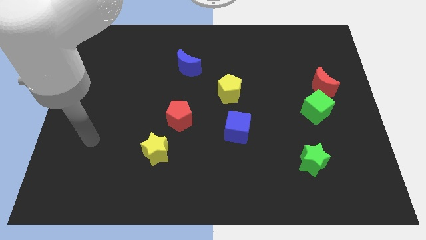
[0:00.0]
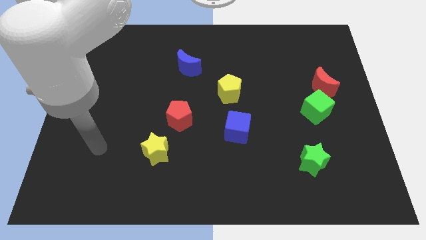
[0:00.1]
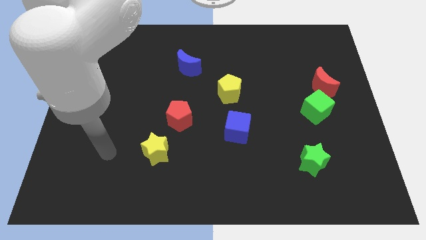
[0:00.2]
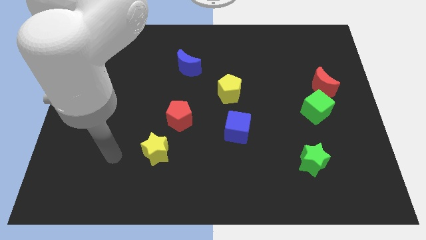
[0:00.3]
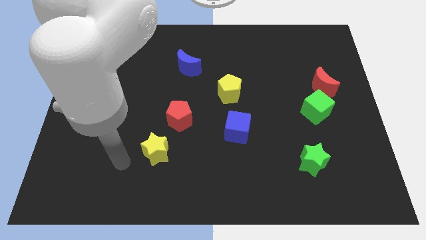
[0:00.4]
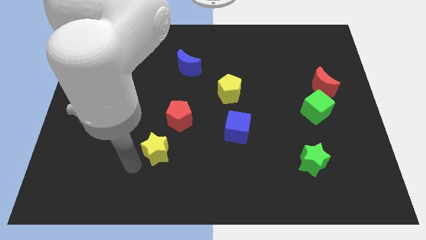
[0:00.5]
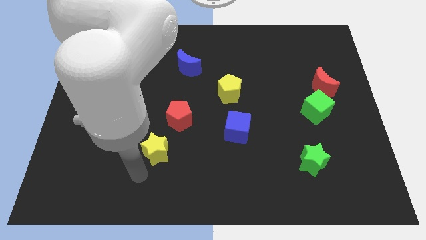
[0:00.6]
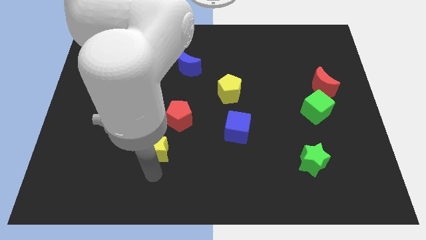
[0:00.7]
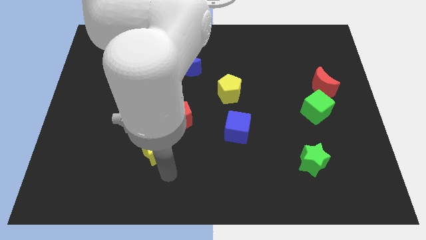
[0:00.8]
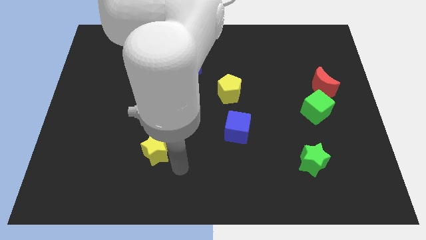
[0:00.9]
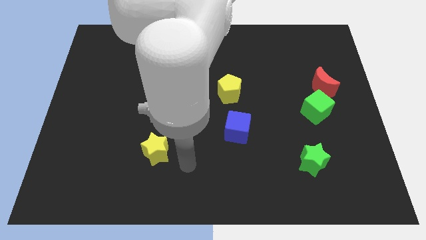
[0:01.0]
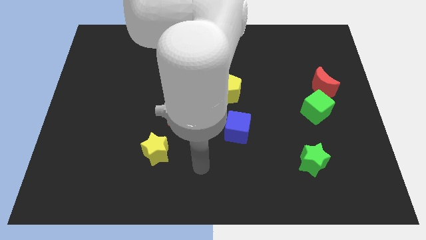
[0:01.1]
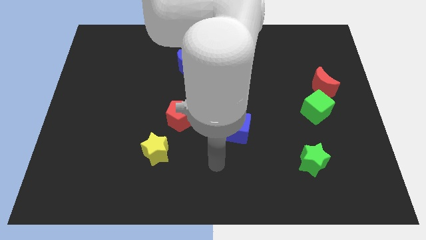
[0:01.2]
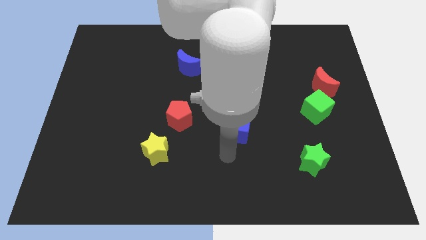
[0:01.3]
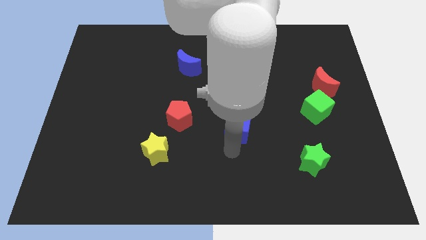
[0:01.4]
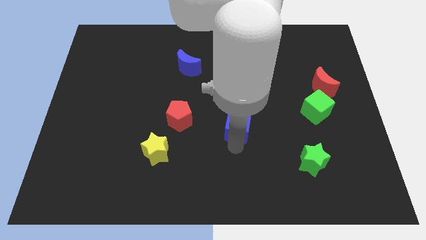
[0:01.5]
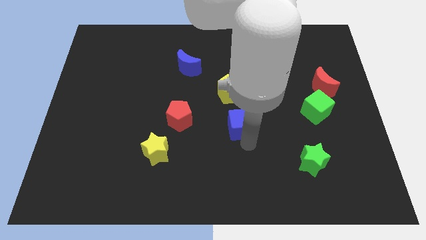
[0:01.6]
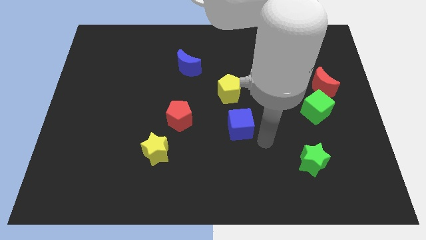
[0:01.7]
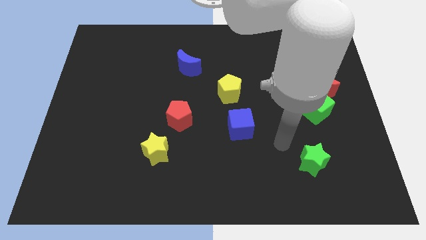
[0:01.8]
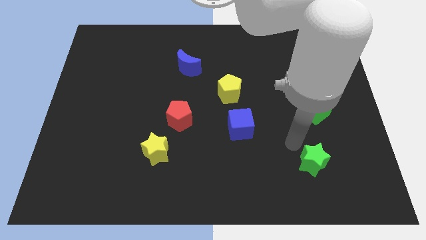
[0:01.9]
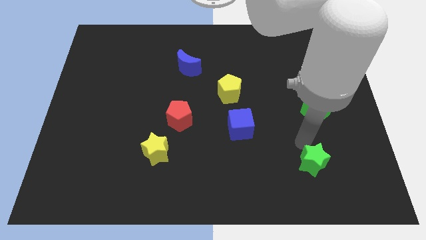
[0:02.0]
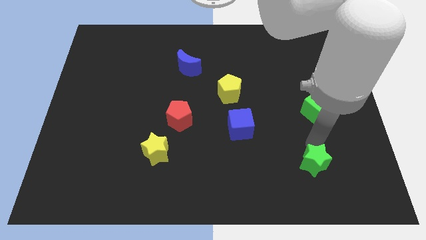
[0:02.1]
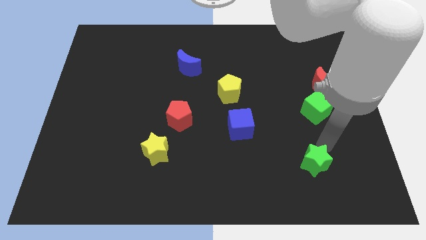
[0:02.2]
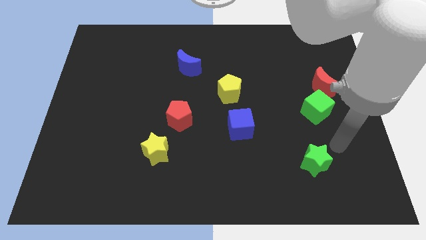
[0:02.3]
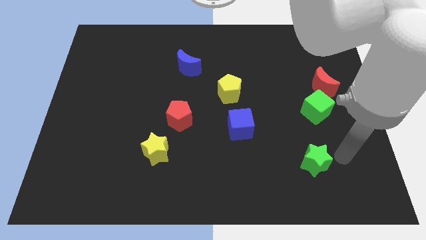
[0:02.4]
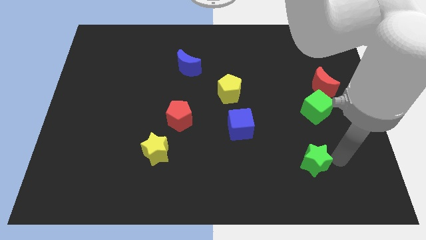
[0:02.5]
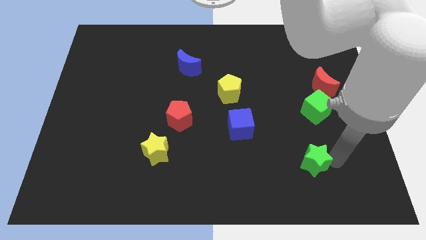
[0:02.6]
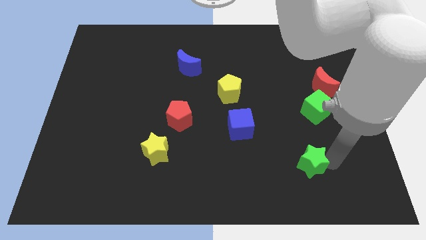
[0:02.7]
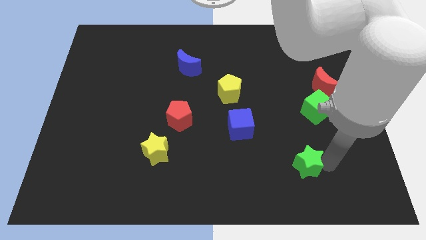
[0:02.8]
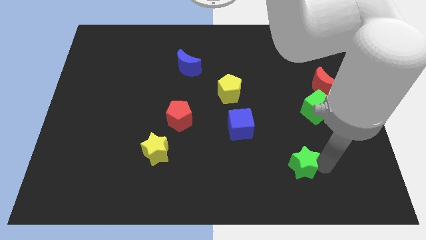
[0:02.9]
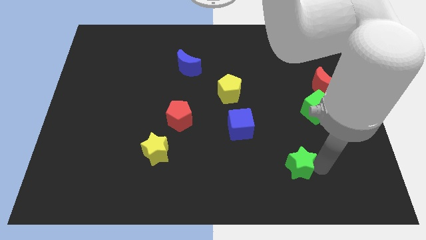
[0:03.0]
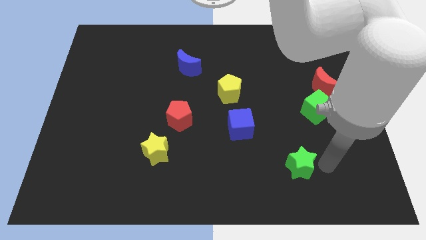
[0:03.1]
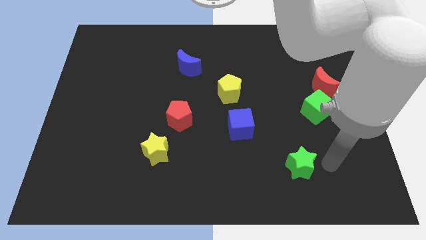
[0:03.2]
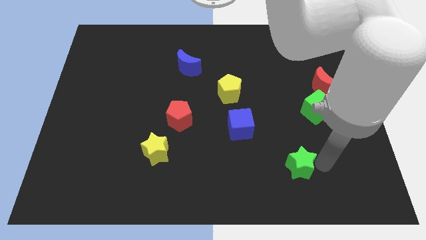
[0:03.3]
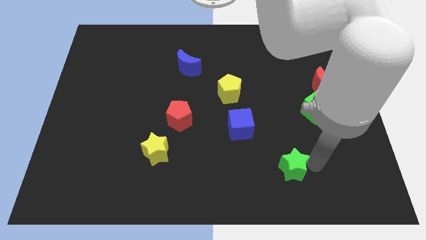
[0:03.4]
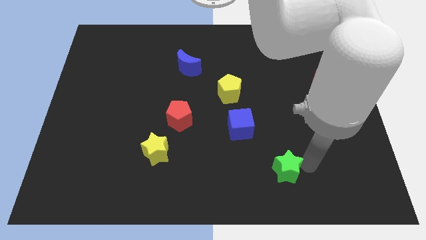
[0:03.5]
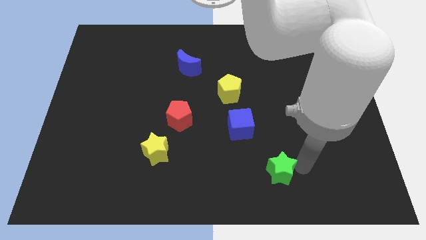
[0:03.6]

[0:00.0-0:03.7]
move the green star somewhat left

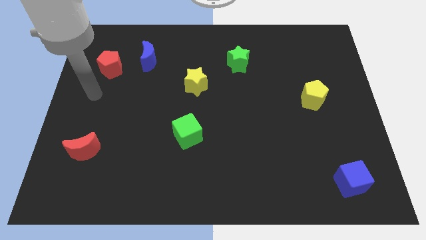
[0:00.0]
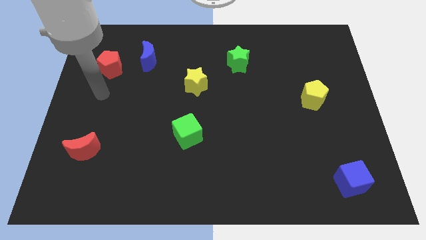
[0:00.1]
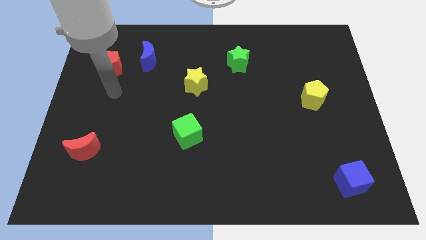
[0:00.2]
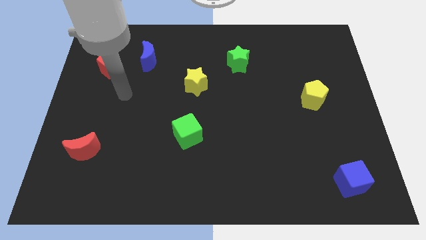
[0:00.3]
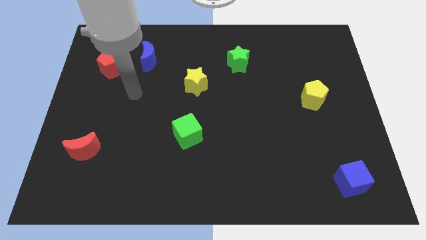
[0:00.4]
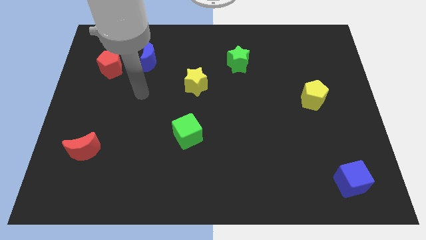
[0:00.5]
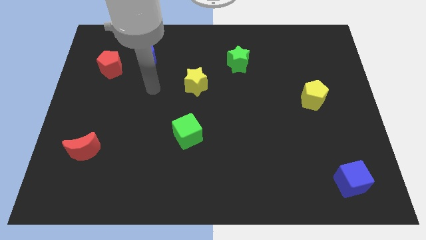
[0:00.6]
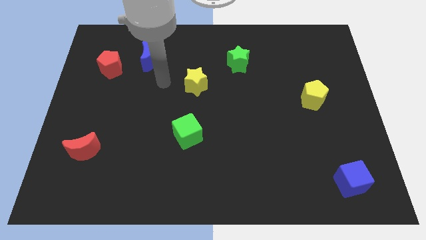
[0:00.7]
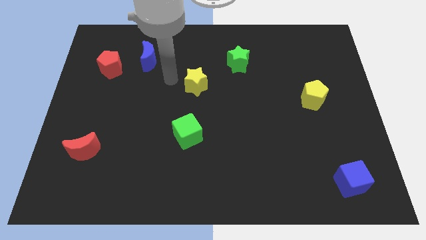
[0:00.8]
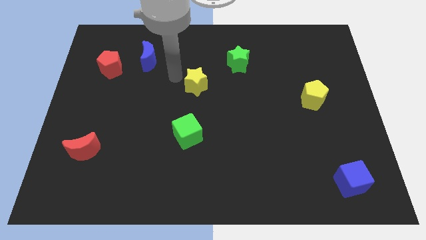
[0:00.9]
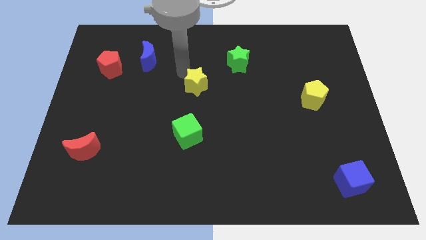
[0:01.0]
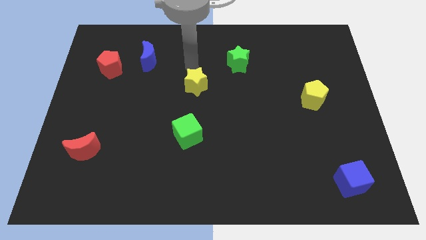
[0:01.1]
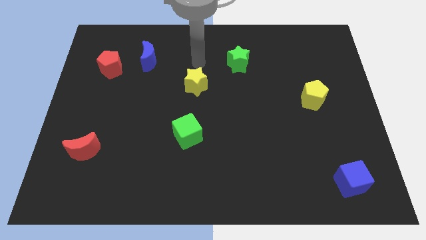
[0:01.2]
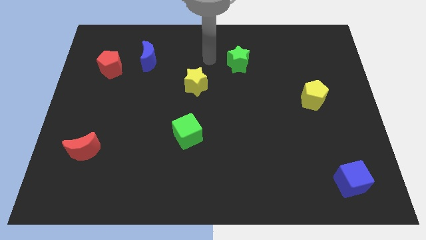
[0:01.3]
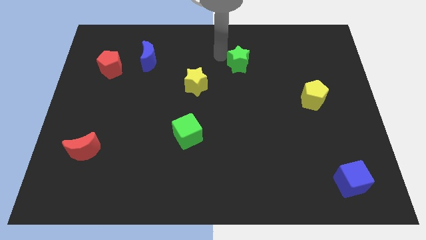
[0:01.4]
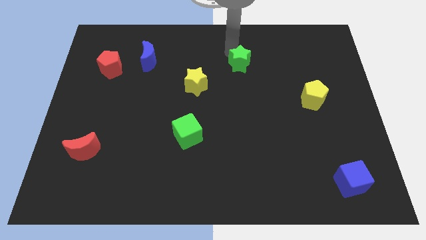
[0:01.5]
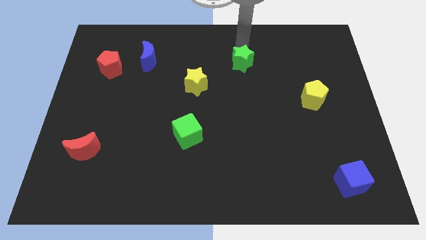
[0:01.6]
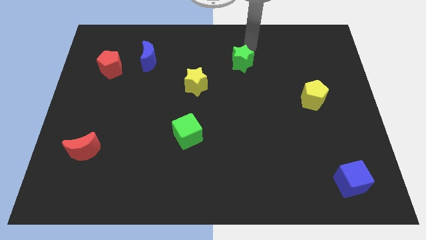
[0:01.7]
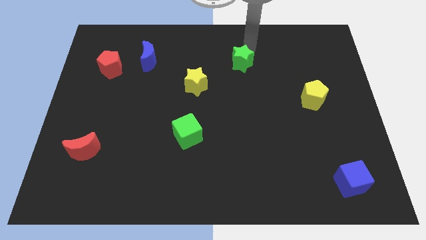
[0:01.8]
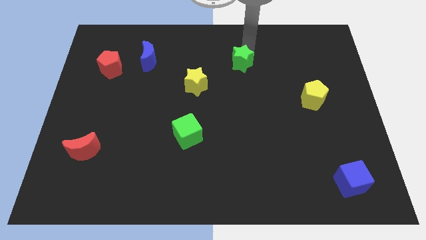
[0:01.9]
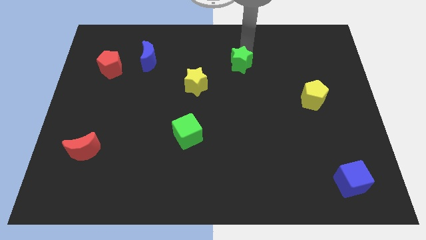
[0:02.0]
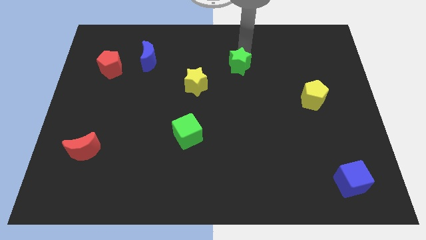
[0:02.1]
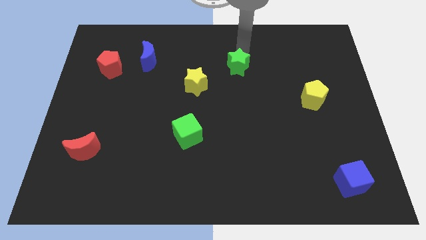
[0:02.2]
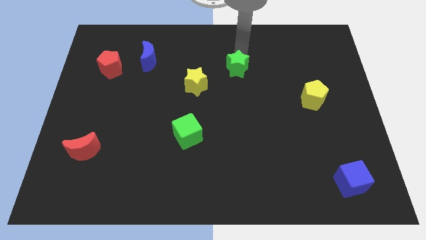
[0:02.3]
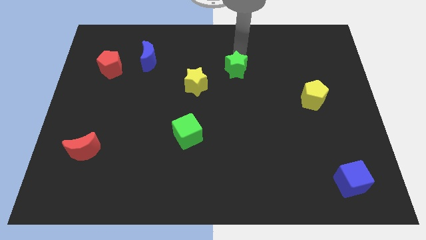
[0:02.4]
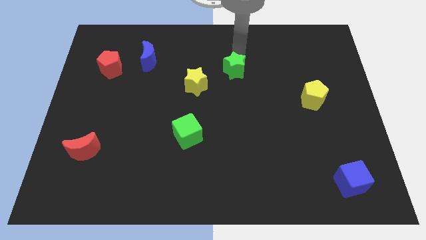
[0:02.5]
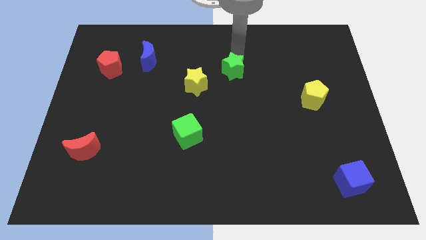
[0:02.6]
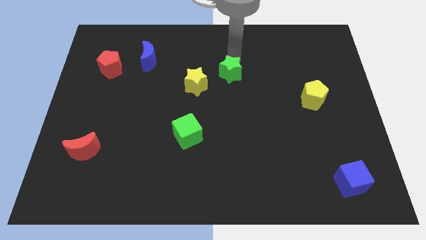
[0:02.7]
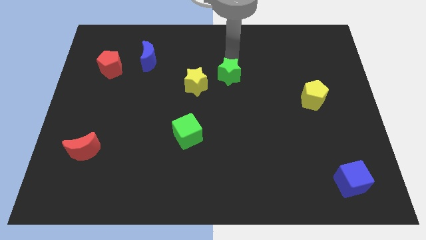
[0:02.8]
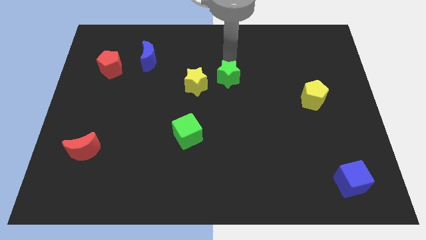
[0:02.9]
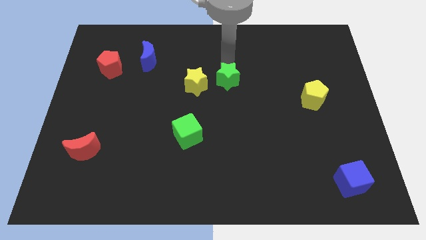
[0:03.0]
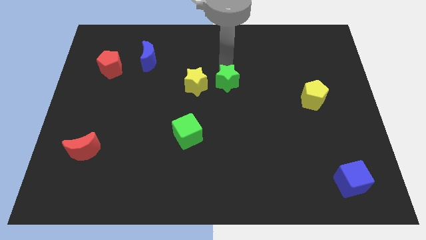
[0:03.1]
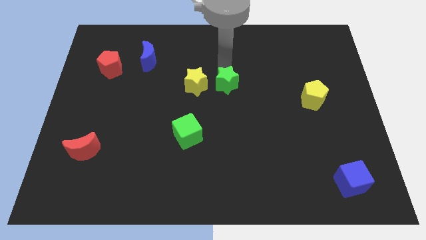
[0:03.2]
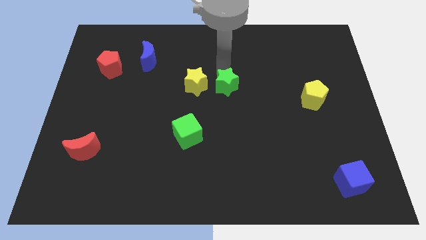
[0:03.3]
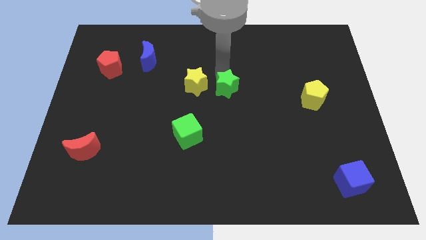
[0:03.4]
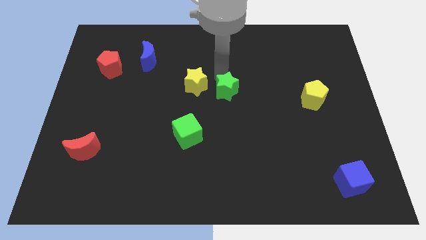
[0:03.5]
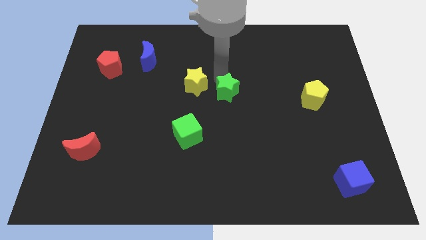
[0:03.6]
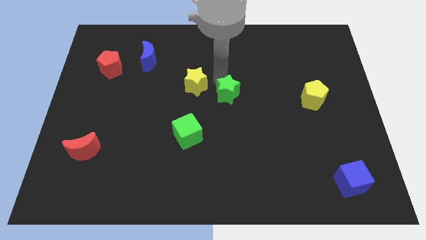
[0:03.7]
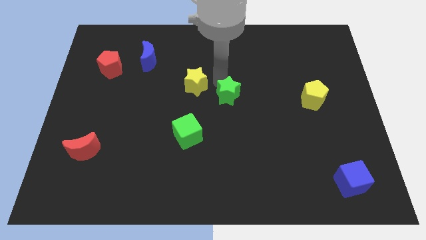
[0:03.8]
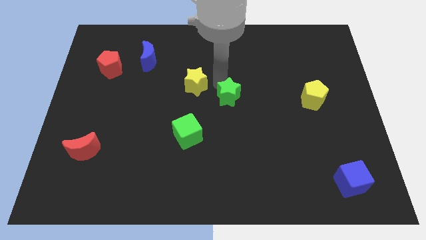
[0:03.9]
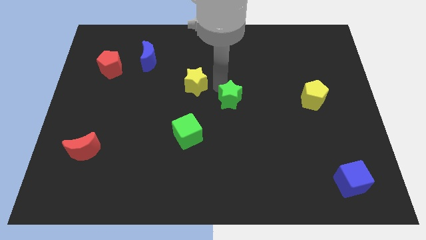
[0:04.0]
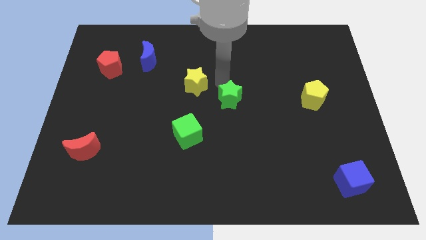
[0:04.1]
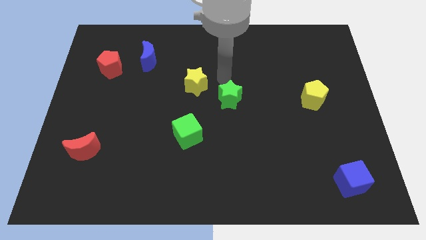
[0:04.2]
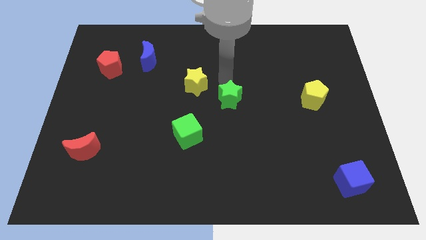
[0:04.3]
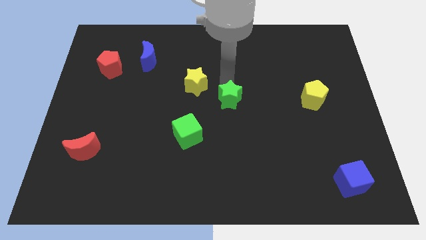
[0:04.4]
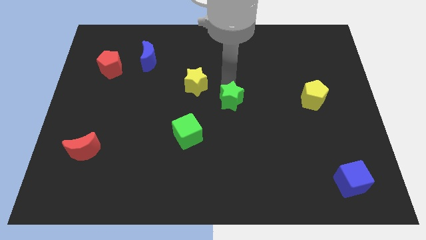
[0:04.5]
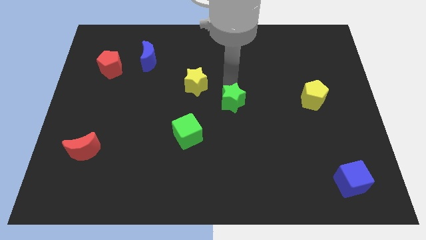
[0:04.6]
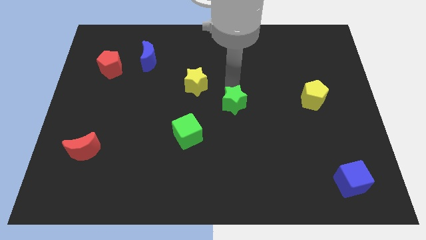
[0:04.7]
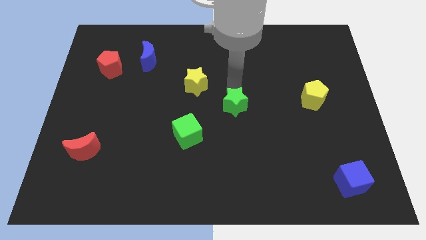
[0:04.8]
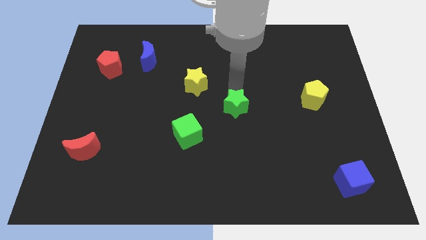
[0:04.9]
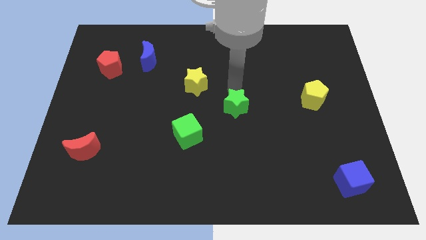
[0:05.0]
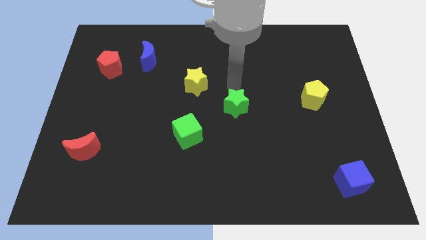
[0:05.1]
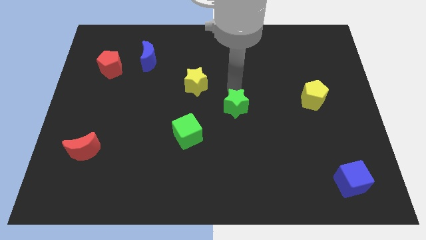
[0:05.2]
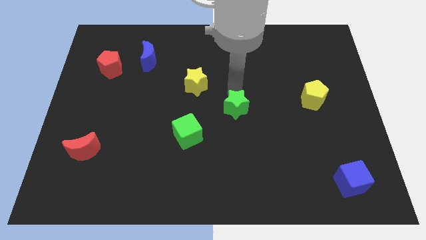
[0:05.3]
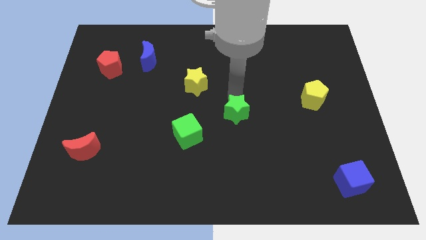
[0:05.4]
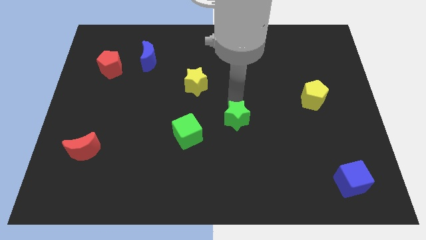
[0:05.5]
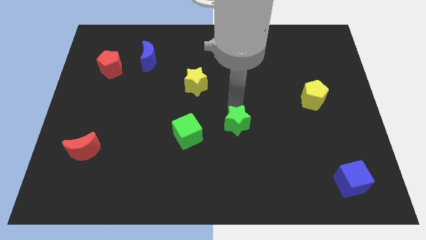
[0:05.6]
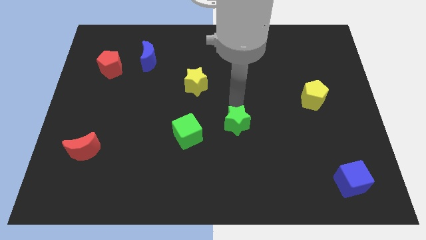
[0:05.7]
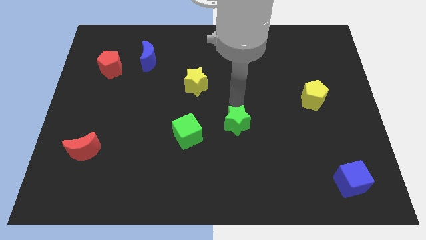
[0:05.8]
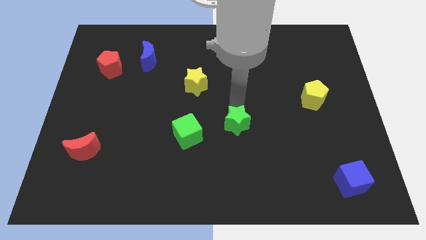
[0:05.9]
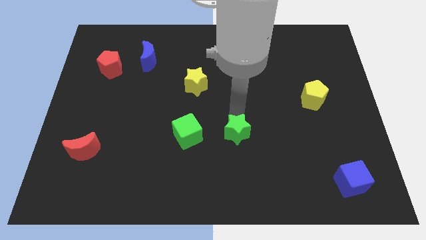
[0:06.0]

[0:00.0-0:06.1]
slide the green star down
